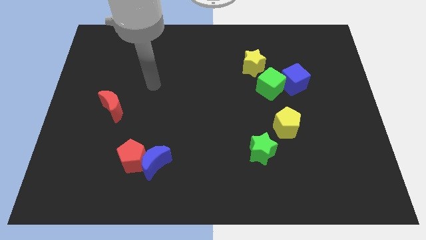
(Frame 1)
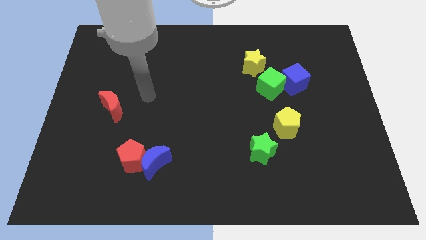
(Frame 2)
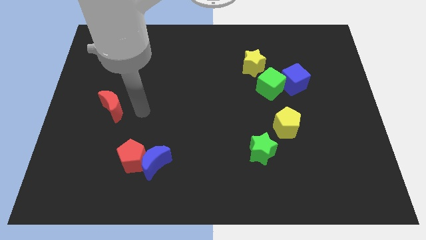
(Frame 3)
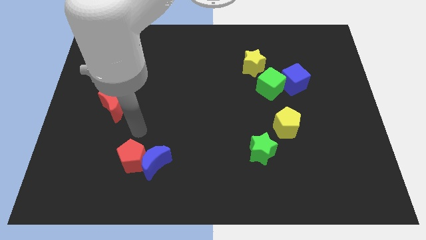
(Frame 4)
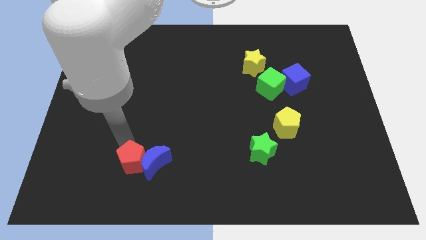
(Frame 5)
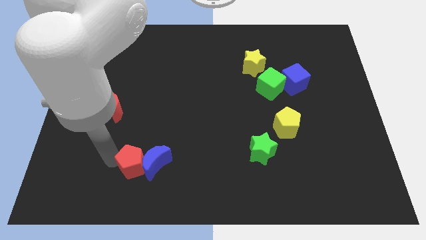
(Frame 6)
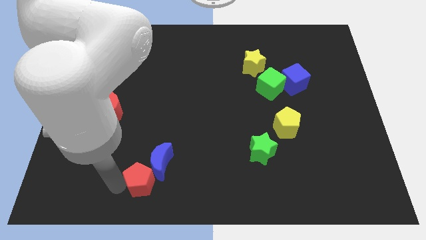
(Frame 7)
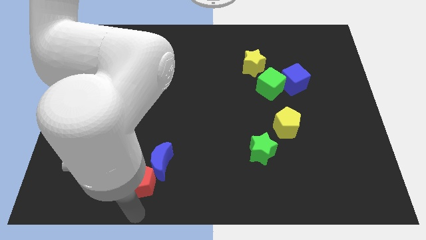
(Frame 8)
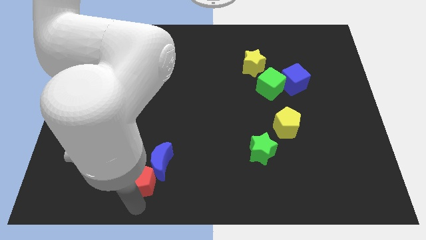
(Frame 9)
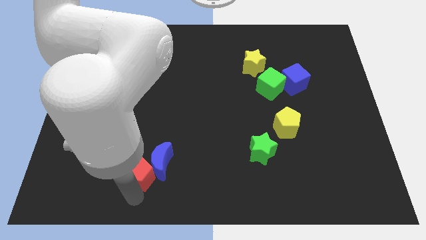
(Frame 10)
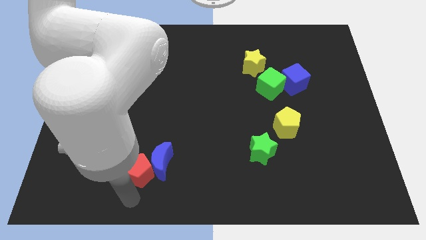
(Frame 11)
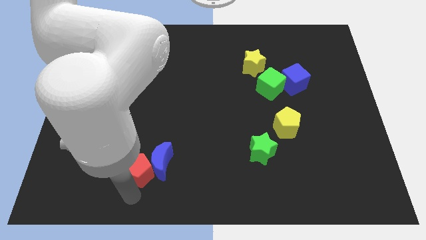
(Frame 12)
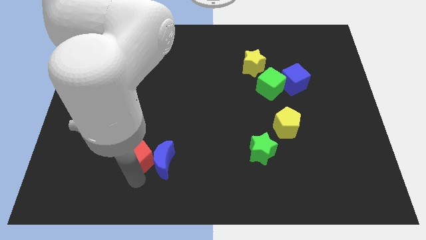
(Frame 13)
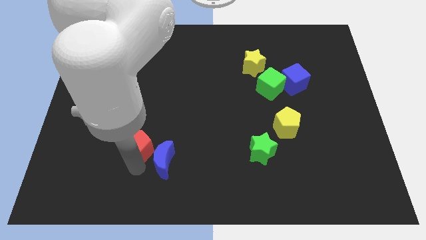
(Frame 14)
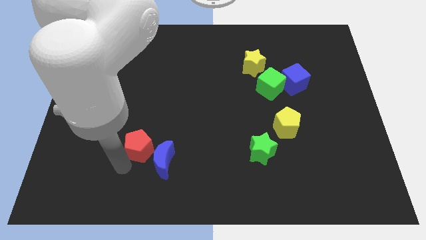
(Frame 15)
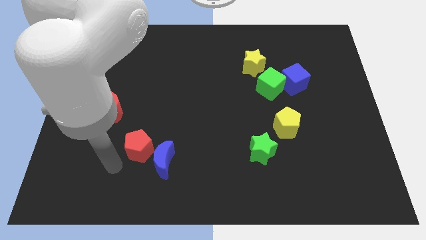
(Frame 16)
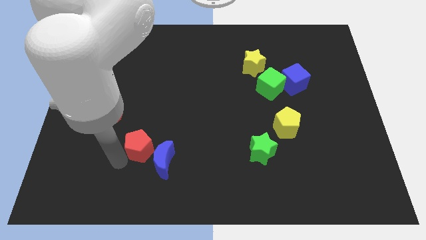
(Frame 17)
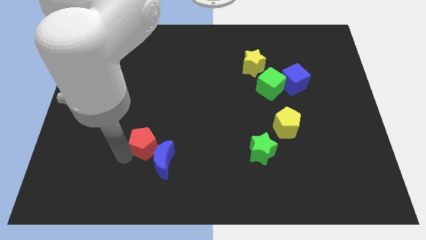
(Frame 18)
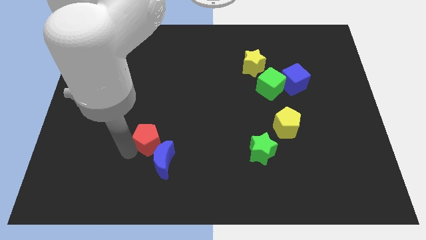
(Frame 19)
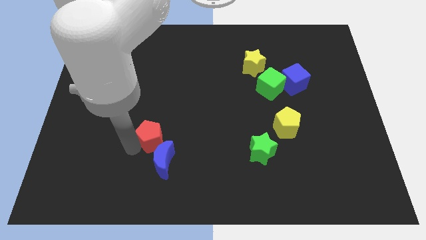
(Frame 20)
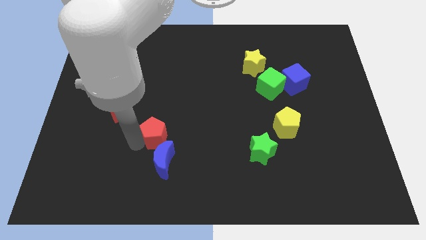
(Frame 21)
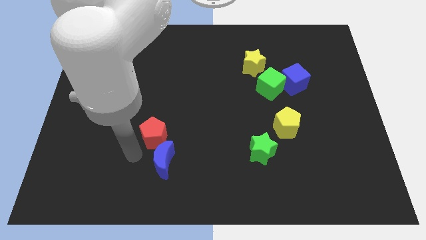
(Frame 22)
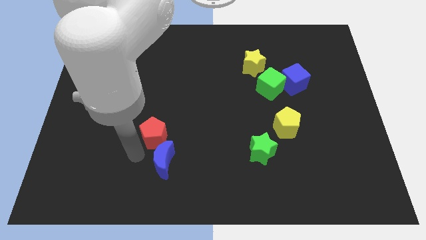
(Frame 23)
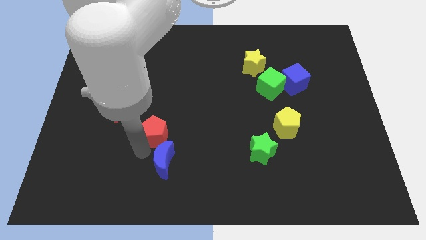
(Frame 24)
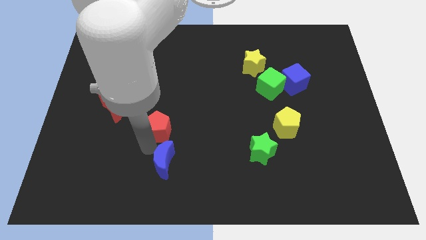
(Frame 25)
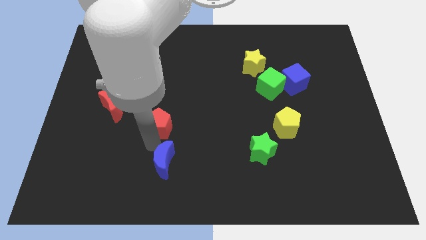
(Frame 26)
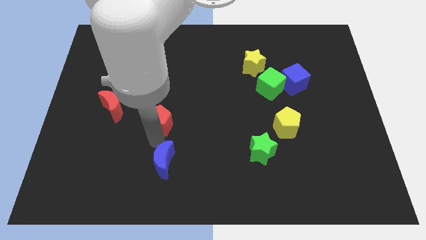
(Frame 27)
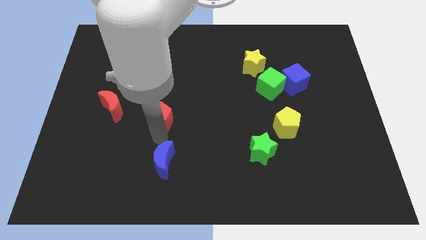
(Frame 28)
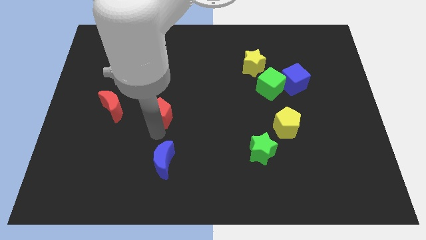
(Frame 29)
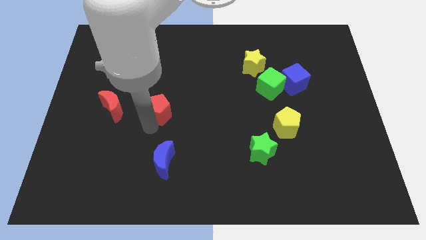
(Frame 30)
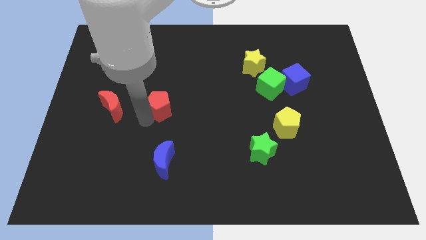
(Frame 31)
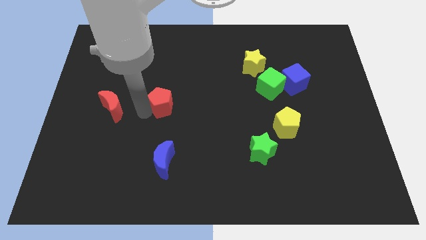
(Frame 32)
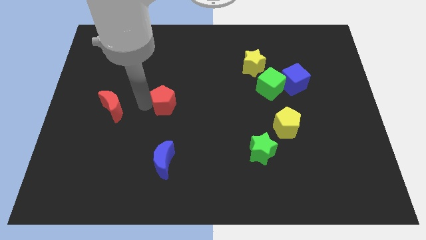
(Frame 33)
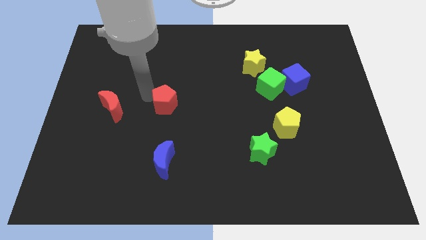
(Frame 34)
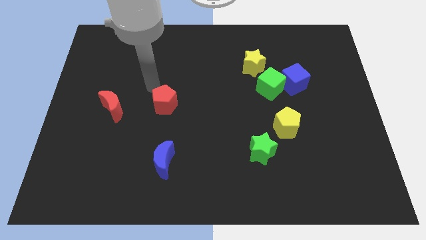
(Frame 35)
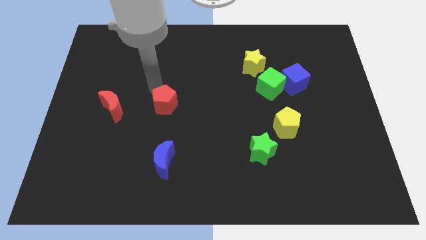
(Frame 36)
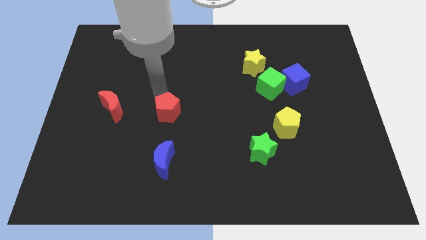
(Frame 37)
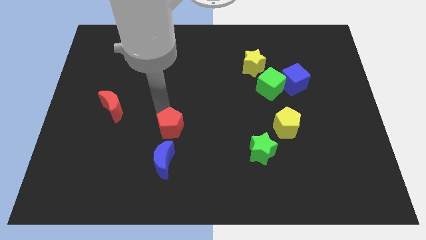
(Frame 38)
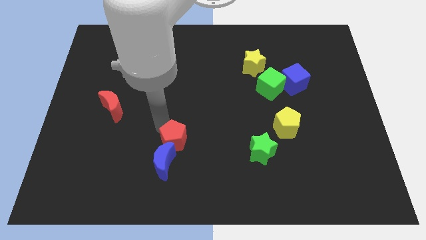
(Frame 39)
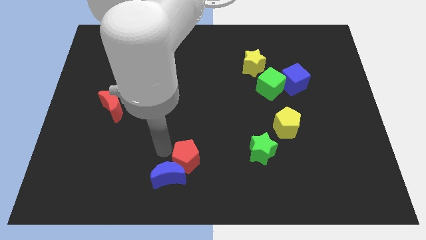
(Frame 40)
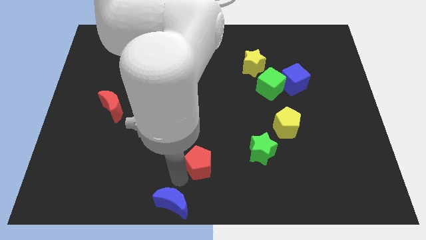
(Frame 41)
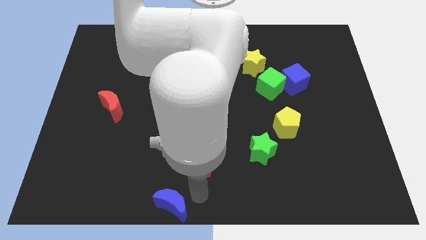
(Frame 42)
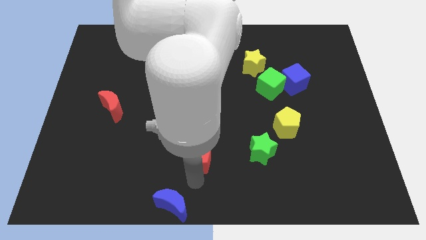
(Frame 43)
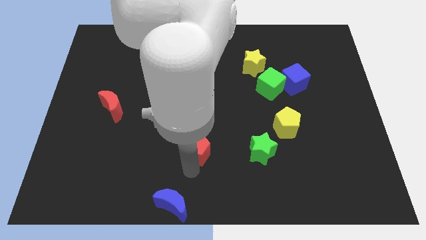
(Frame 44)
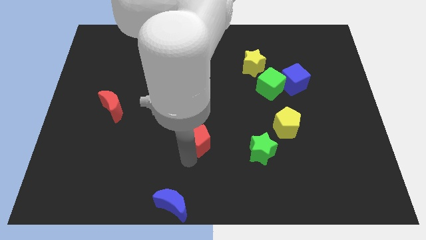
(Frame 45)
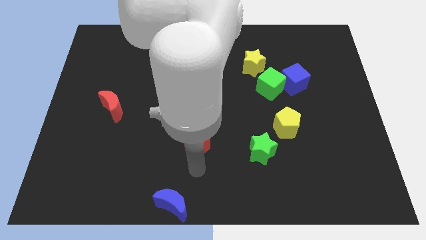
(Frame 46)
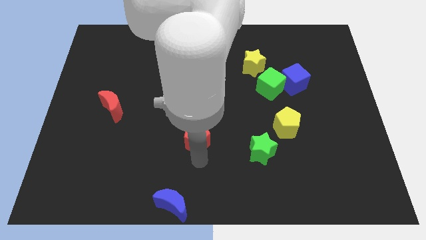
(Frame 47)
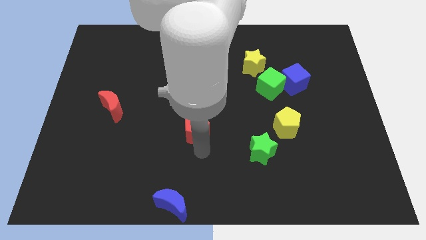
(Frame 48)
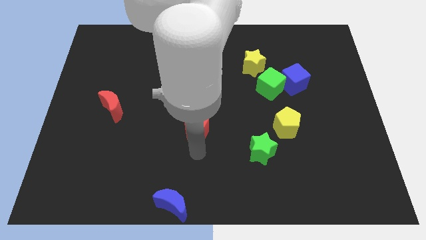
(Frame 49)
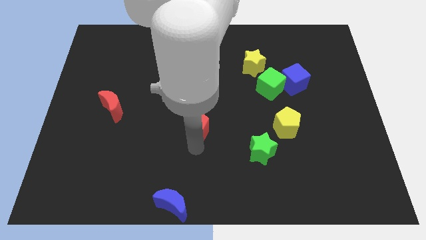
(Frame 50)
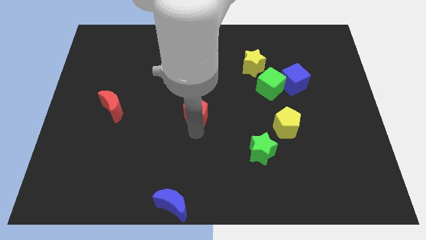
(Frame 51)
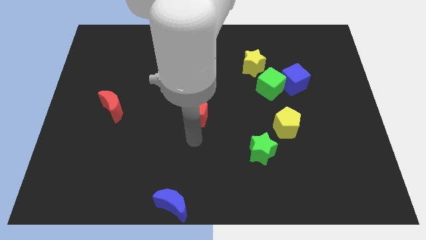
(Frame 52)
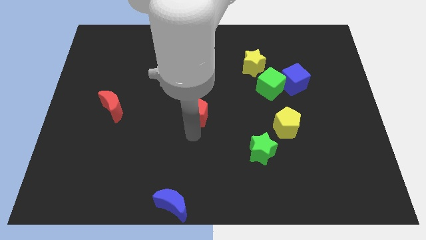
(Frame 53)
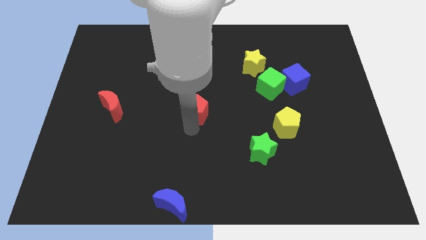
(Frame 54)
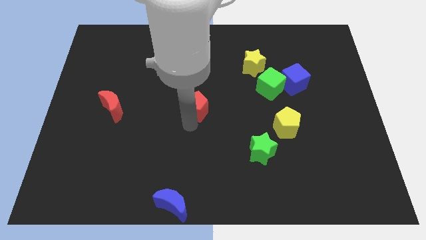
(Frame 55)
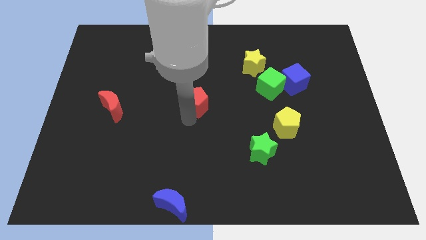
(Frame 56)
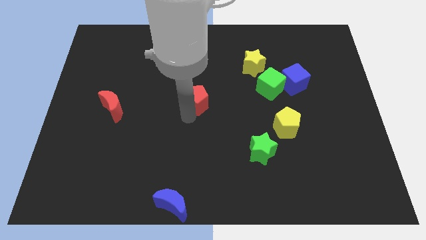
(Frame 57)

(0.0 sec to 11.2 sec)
slide the red pentagon up and to the right

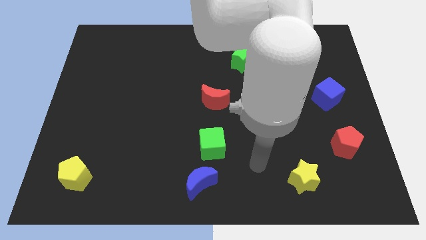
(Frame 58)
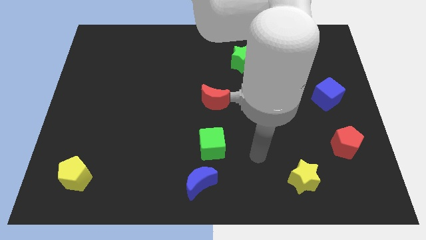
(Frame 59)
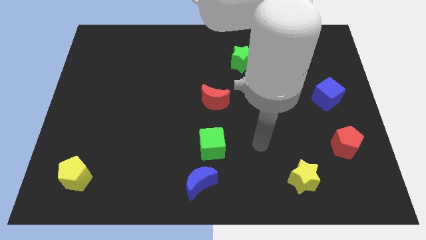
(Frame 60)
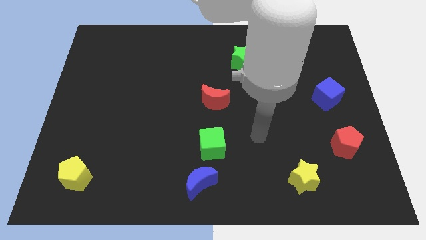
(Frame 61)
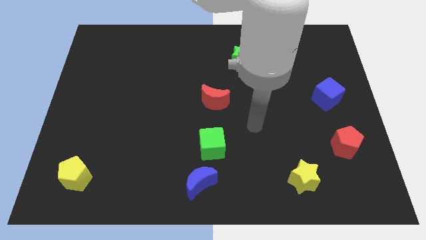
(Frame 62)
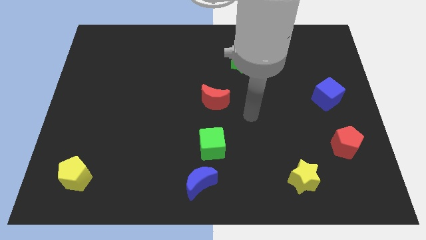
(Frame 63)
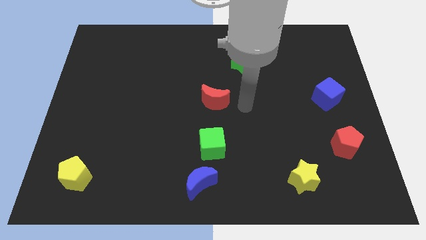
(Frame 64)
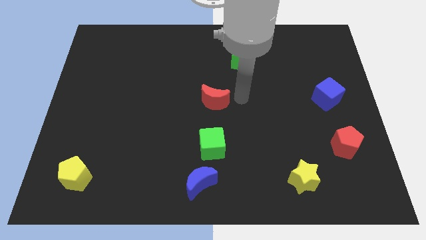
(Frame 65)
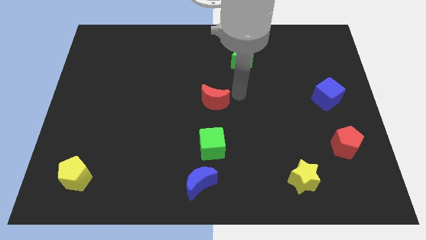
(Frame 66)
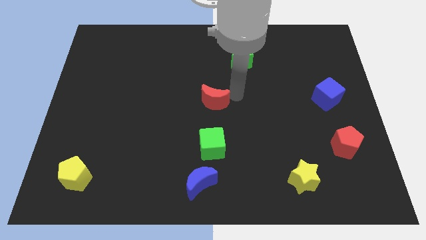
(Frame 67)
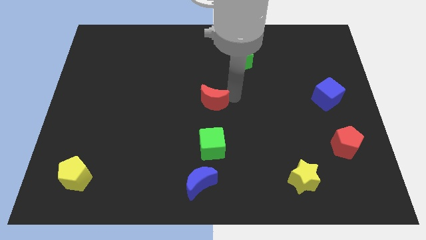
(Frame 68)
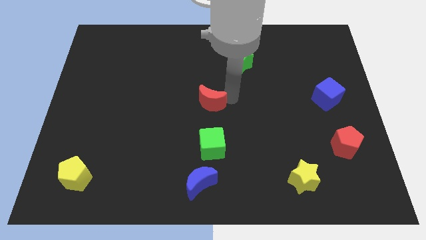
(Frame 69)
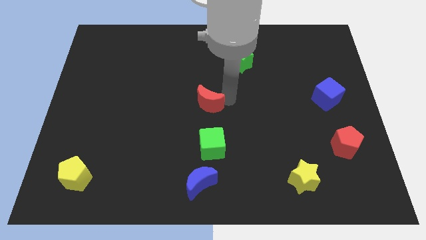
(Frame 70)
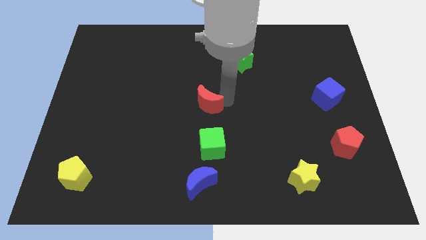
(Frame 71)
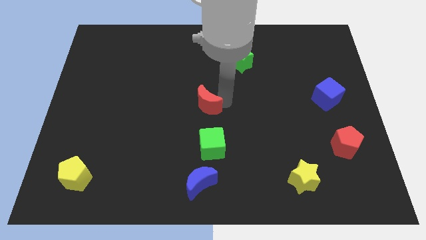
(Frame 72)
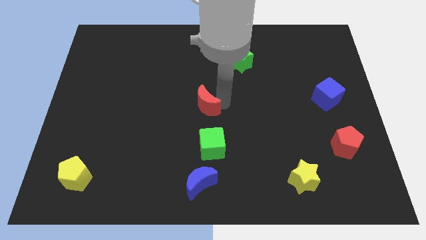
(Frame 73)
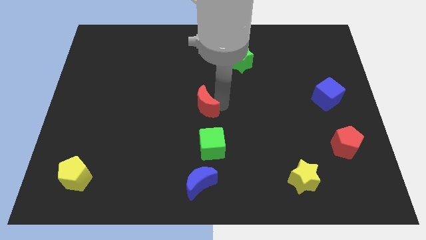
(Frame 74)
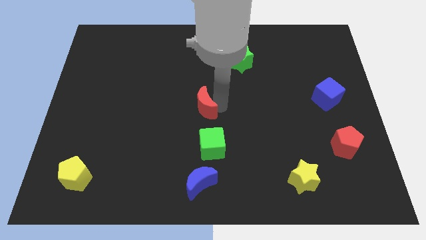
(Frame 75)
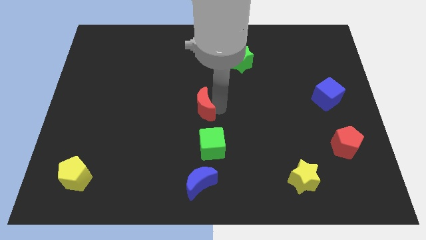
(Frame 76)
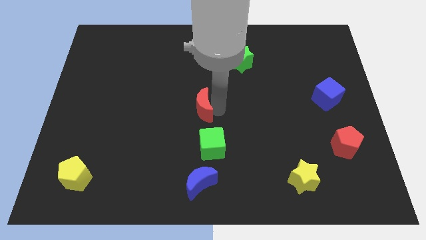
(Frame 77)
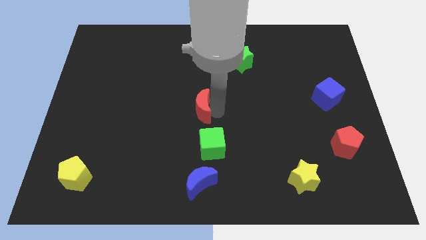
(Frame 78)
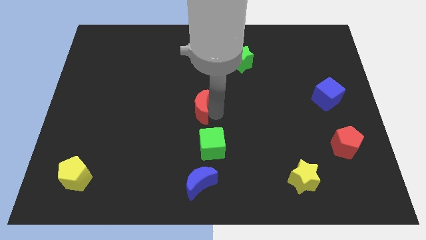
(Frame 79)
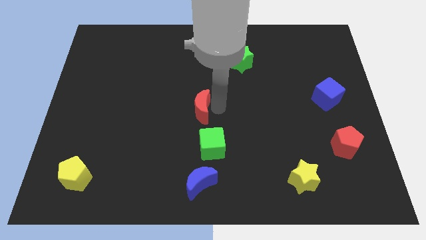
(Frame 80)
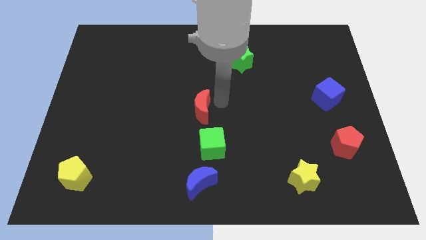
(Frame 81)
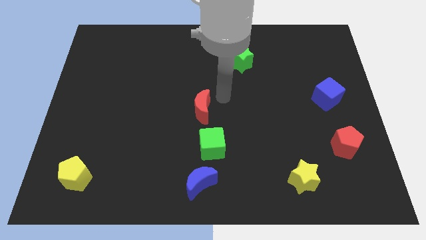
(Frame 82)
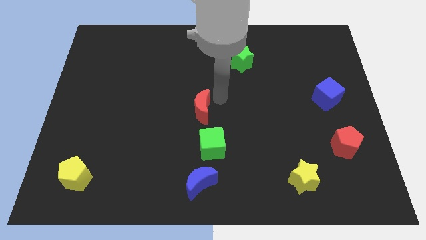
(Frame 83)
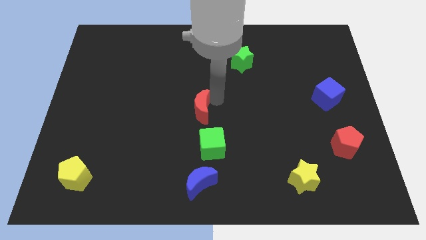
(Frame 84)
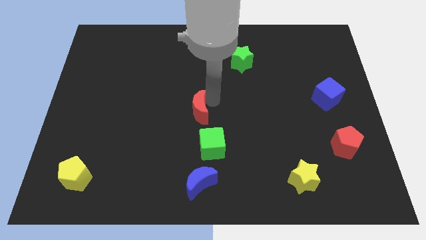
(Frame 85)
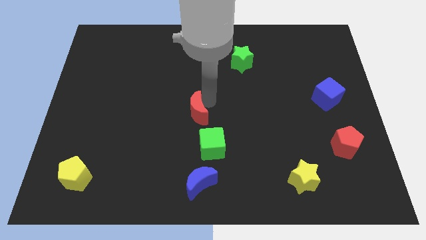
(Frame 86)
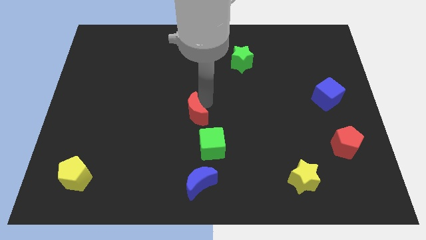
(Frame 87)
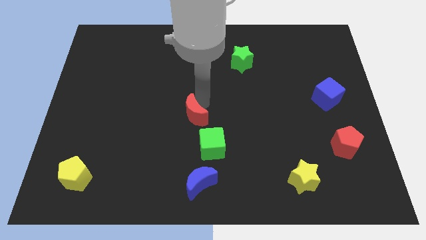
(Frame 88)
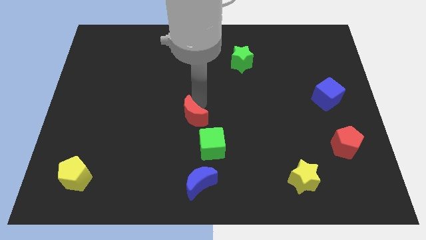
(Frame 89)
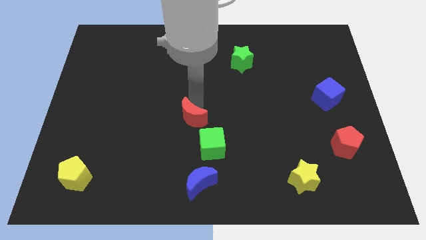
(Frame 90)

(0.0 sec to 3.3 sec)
push the red moon slightly down and left diagonally
